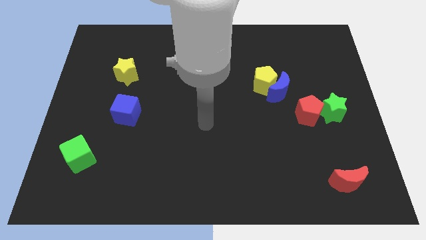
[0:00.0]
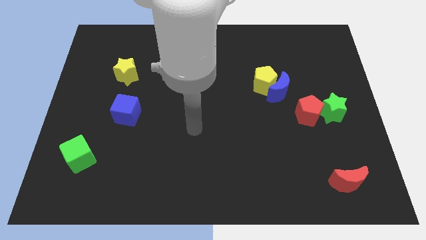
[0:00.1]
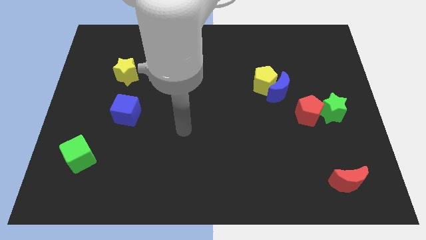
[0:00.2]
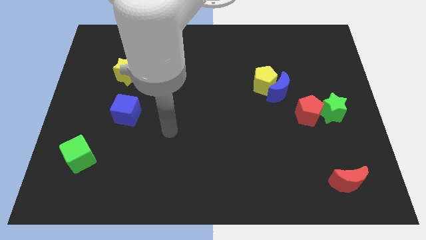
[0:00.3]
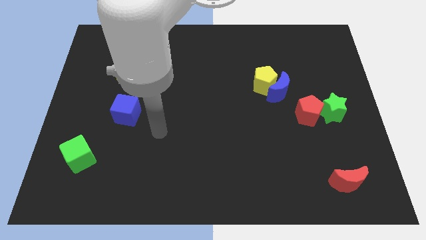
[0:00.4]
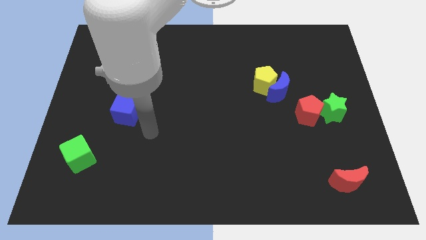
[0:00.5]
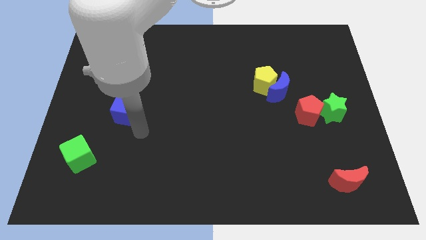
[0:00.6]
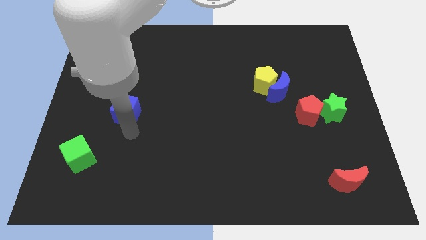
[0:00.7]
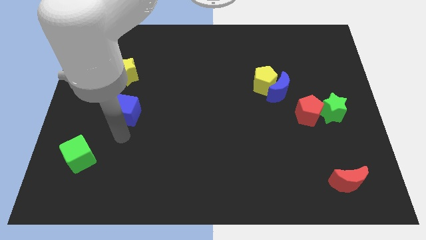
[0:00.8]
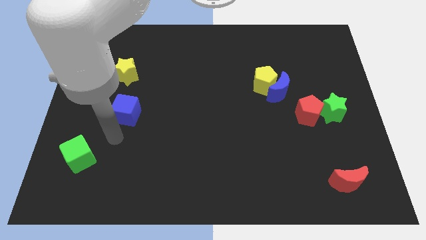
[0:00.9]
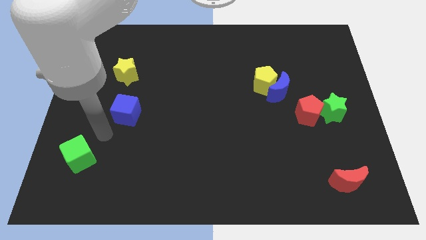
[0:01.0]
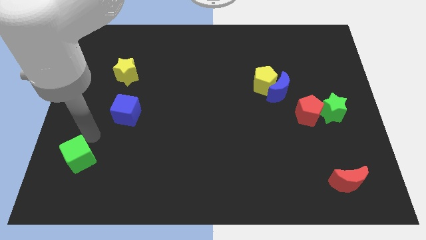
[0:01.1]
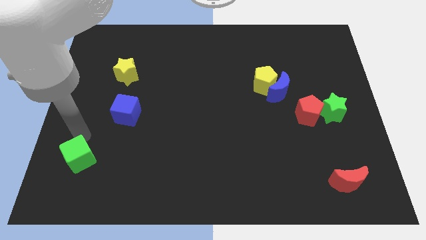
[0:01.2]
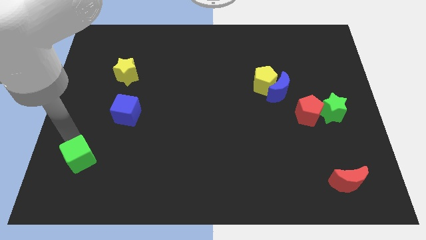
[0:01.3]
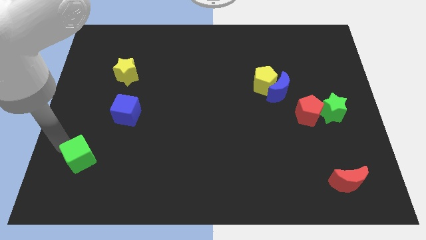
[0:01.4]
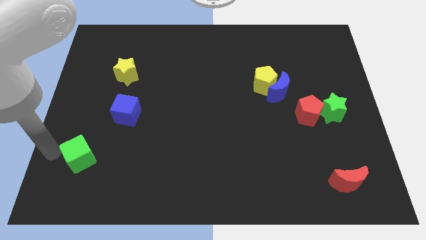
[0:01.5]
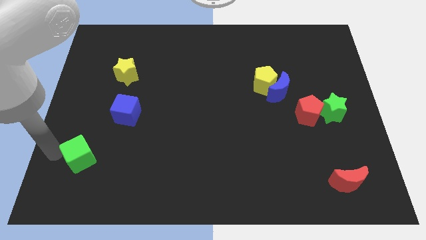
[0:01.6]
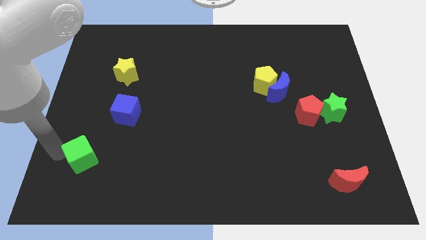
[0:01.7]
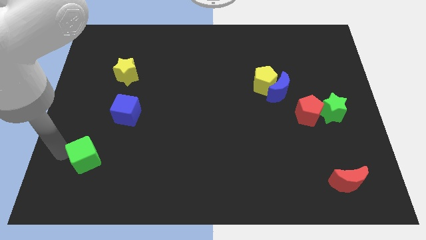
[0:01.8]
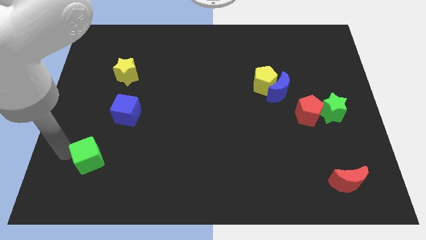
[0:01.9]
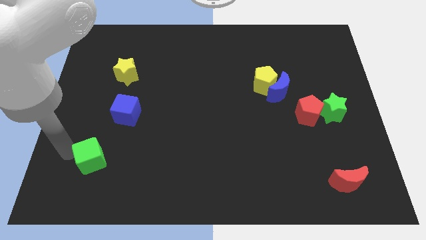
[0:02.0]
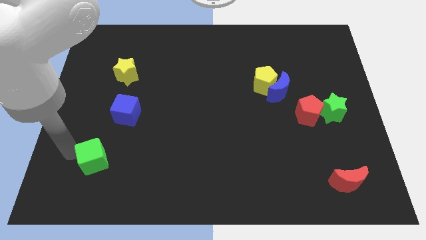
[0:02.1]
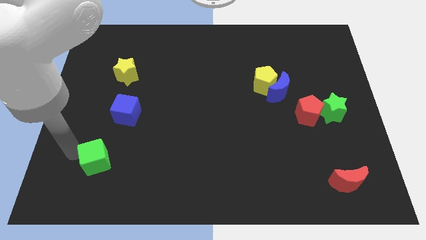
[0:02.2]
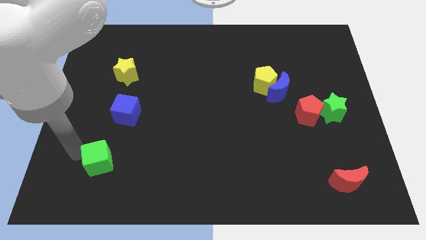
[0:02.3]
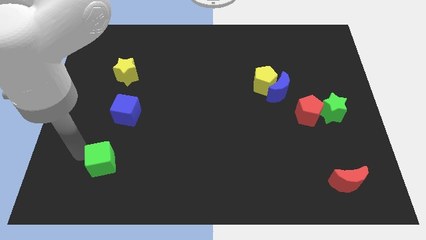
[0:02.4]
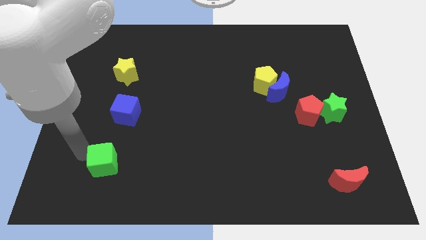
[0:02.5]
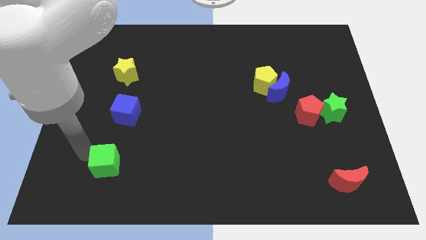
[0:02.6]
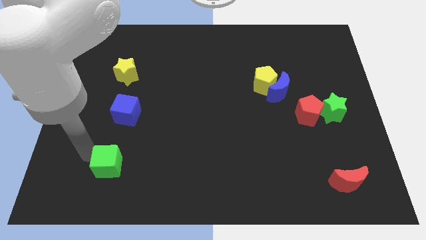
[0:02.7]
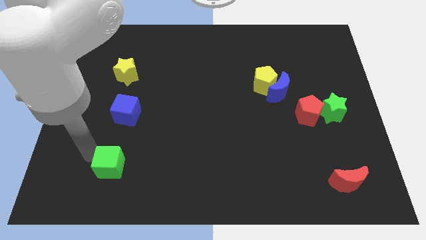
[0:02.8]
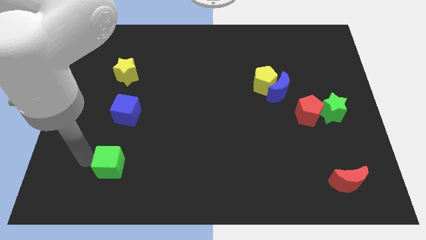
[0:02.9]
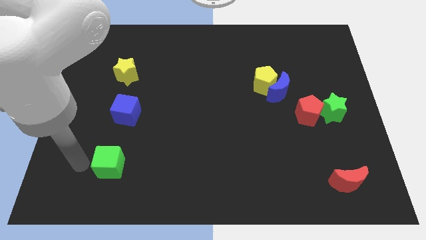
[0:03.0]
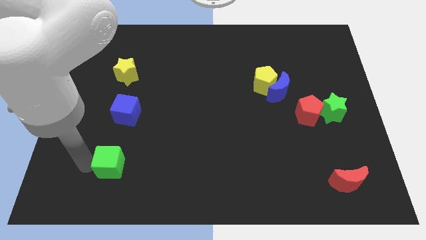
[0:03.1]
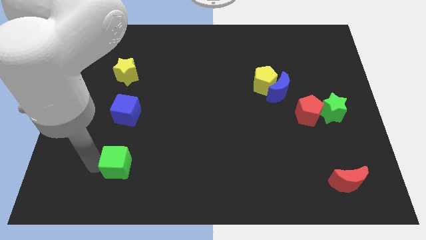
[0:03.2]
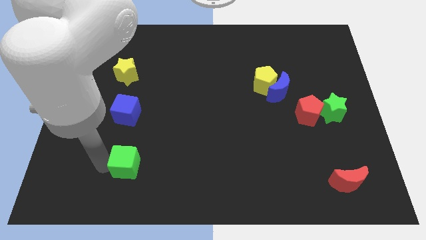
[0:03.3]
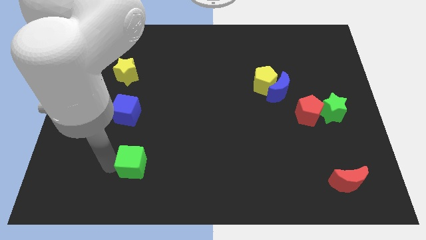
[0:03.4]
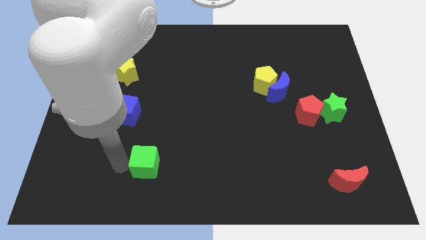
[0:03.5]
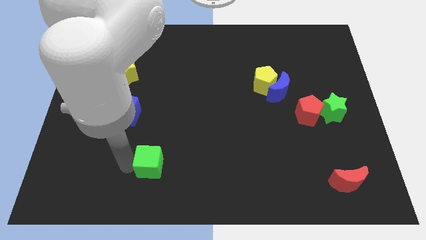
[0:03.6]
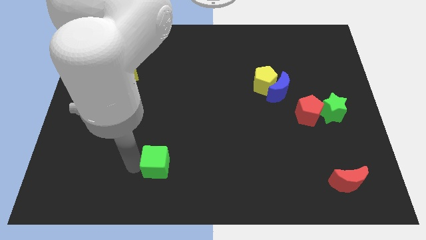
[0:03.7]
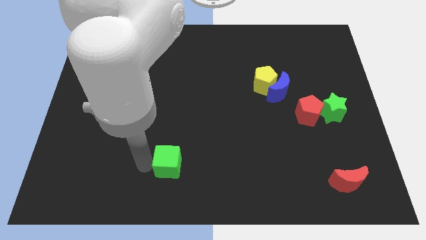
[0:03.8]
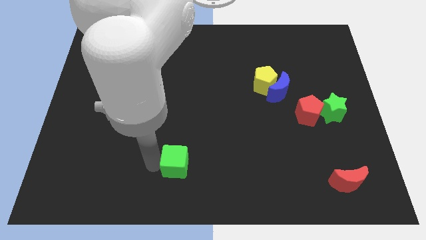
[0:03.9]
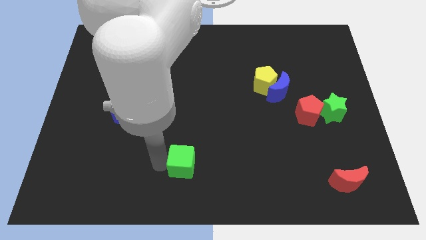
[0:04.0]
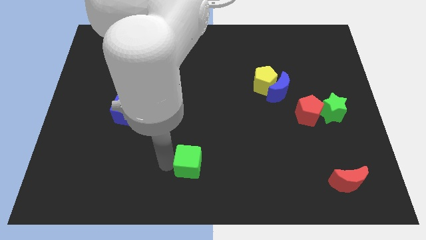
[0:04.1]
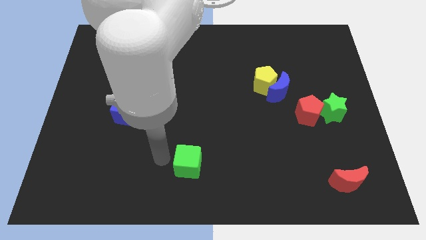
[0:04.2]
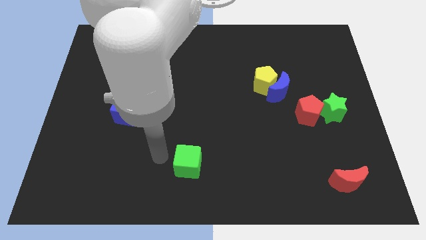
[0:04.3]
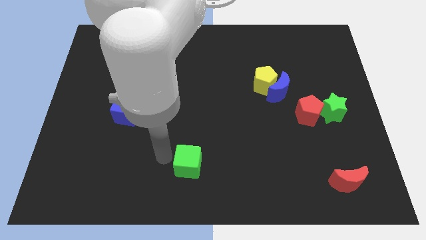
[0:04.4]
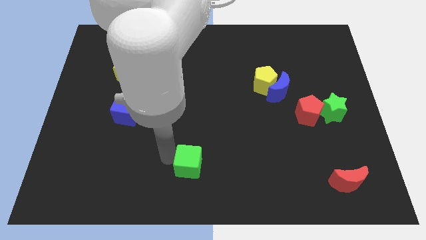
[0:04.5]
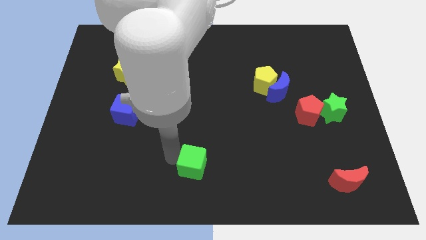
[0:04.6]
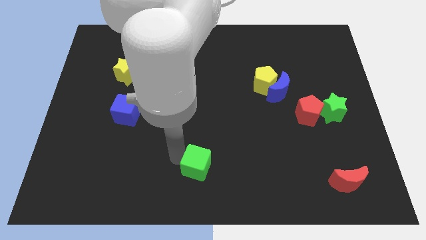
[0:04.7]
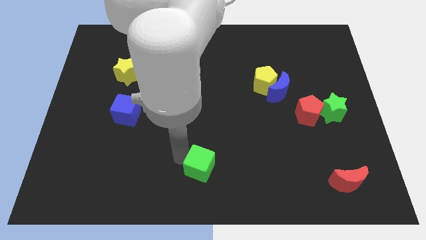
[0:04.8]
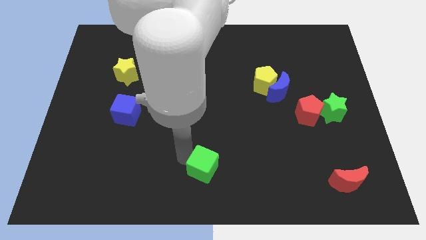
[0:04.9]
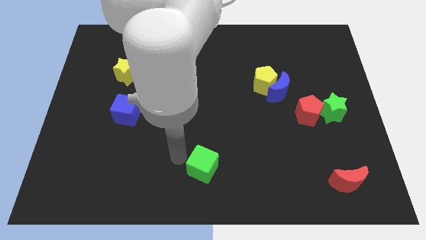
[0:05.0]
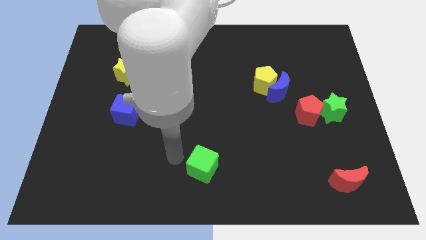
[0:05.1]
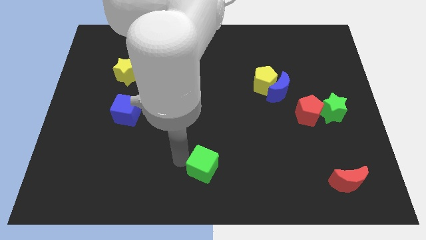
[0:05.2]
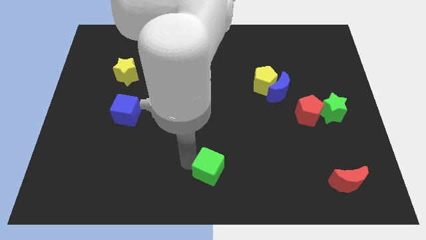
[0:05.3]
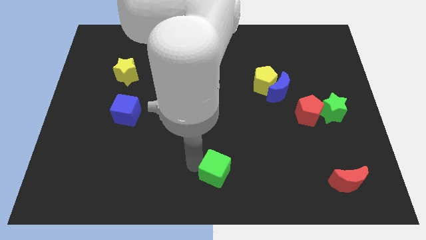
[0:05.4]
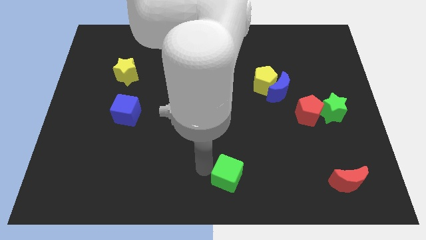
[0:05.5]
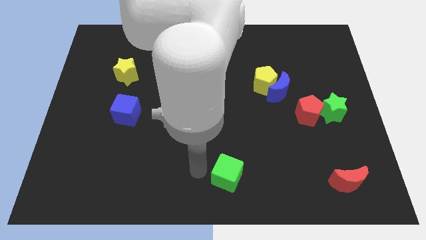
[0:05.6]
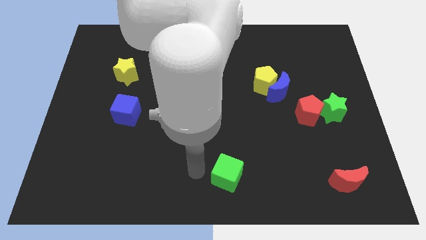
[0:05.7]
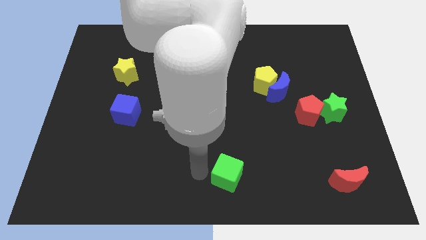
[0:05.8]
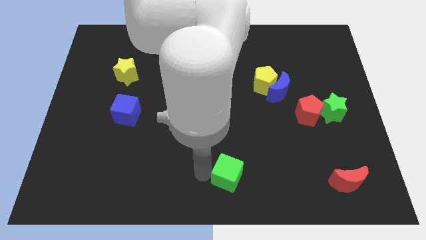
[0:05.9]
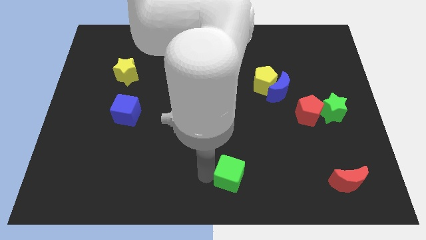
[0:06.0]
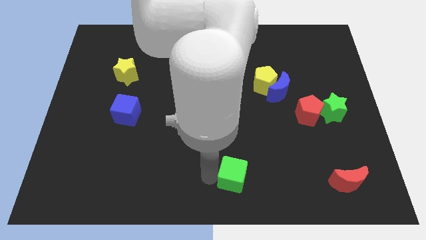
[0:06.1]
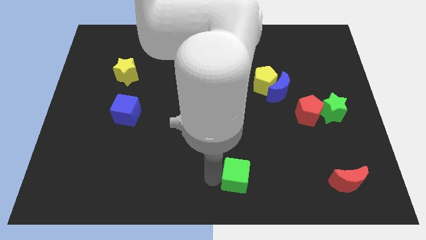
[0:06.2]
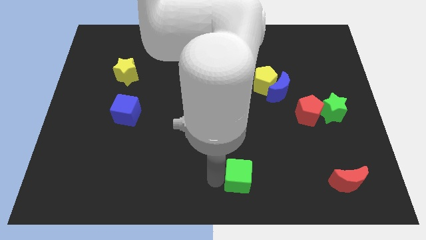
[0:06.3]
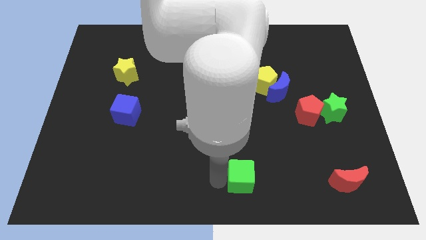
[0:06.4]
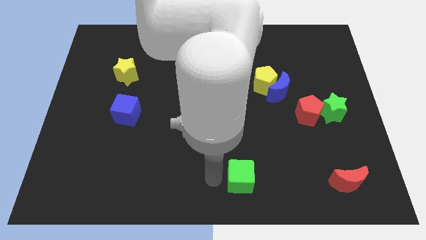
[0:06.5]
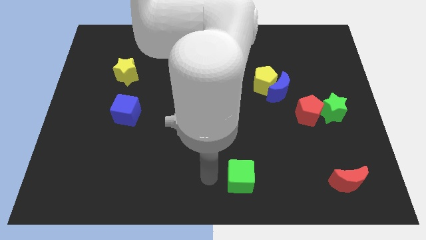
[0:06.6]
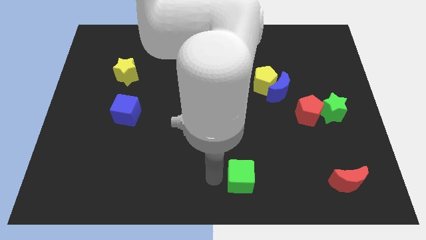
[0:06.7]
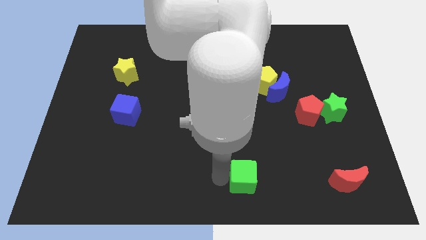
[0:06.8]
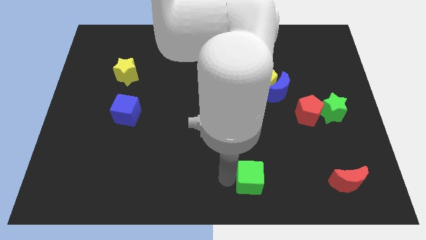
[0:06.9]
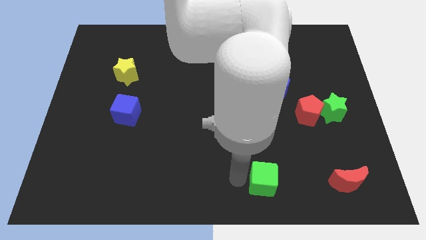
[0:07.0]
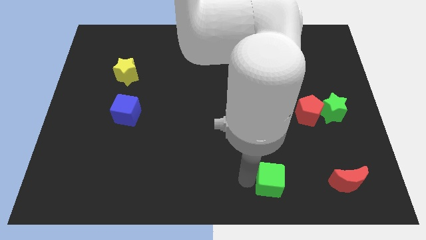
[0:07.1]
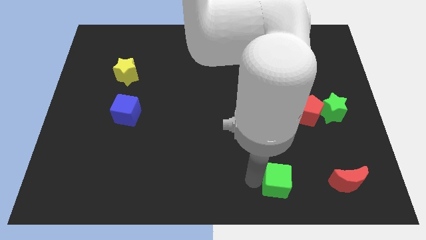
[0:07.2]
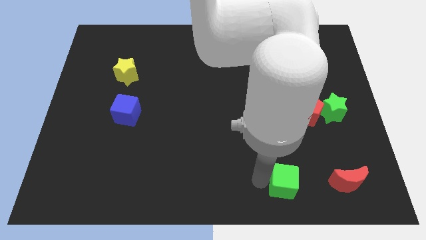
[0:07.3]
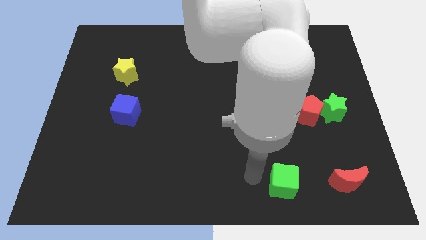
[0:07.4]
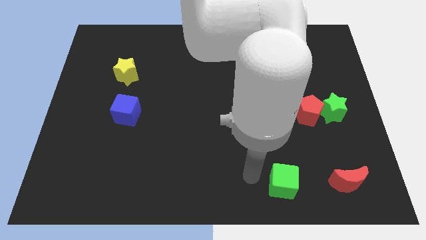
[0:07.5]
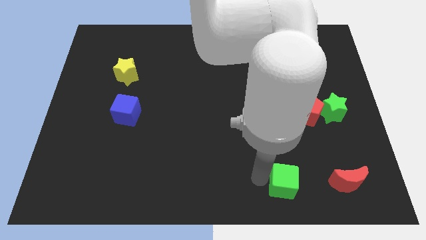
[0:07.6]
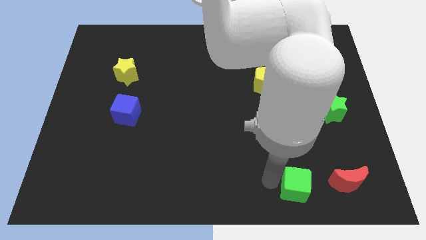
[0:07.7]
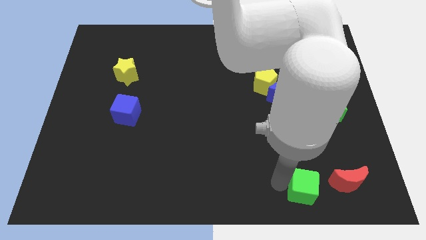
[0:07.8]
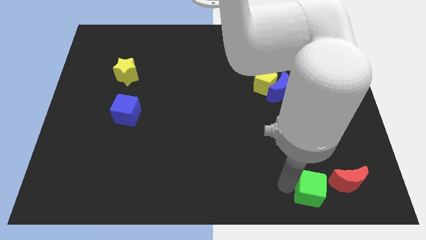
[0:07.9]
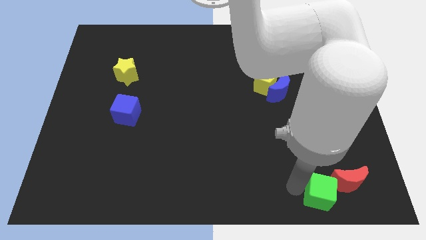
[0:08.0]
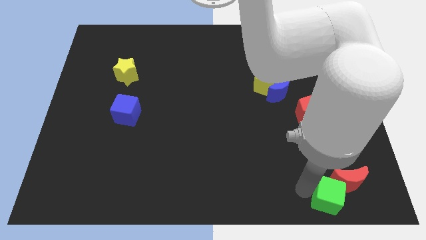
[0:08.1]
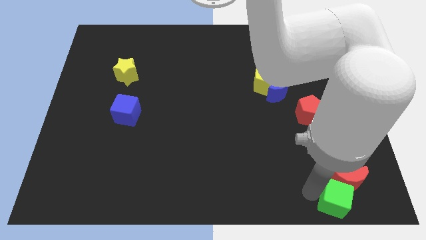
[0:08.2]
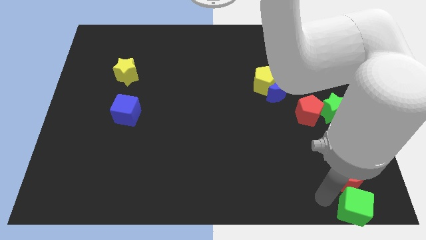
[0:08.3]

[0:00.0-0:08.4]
move the green cube to the lower right corner
